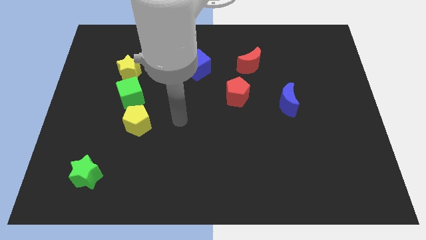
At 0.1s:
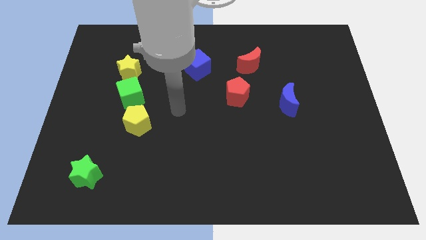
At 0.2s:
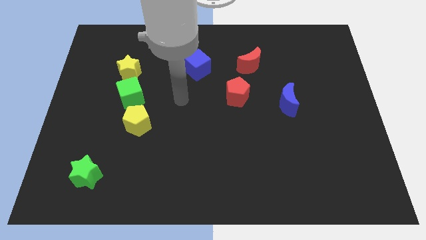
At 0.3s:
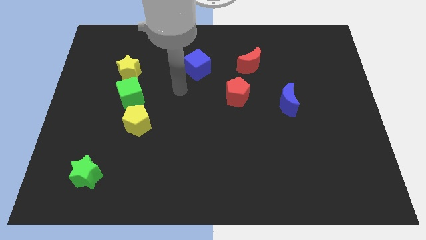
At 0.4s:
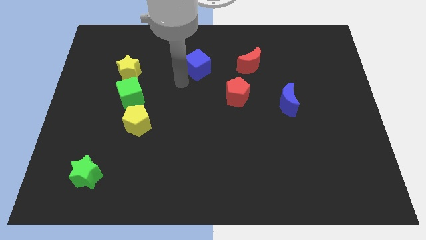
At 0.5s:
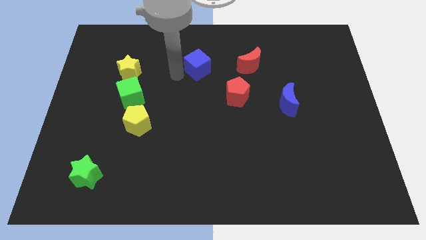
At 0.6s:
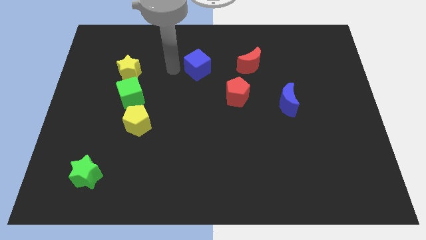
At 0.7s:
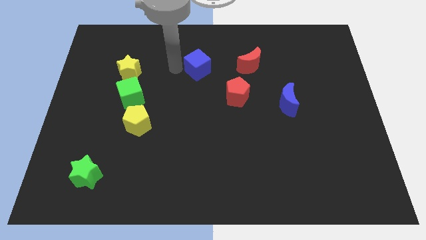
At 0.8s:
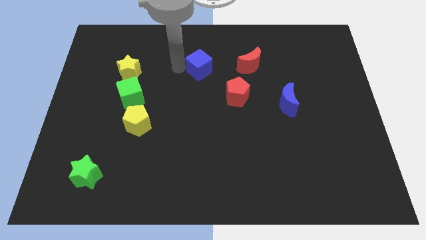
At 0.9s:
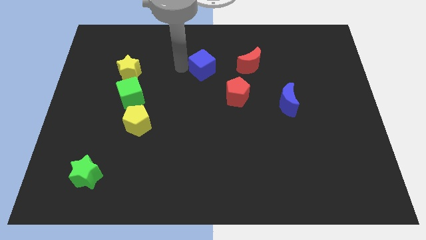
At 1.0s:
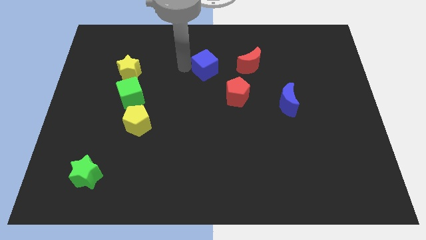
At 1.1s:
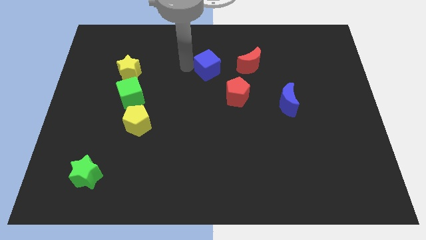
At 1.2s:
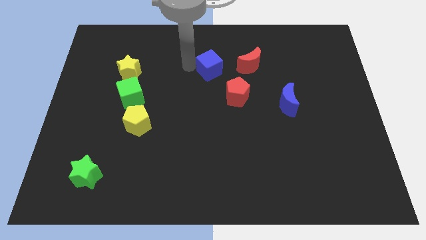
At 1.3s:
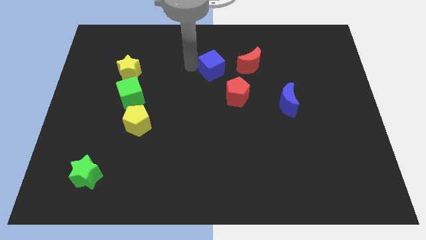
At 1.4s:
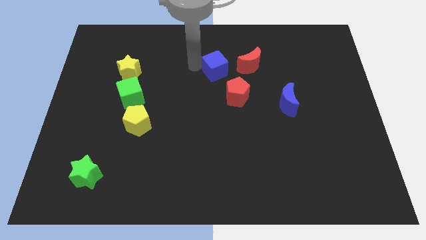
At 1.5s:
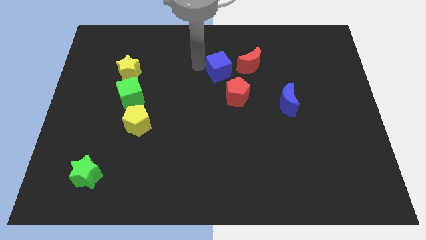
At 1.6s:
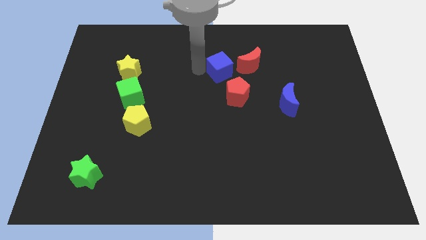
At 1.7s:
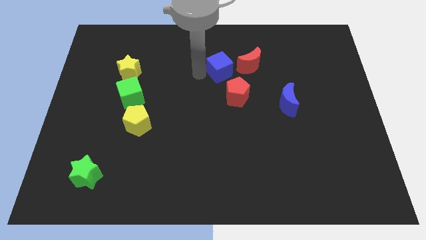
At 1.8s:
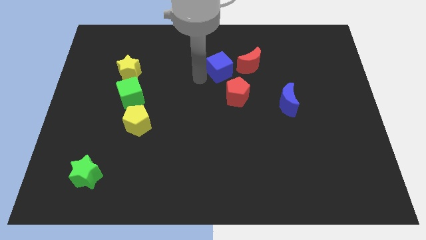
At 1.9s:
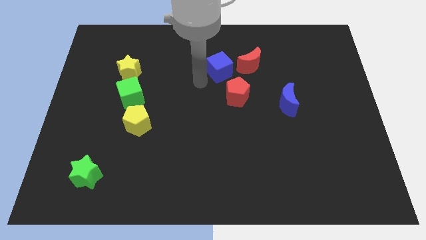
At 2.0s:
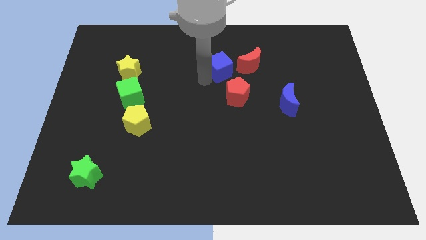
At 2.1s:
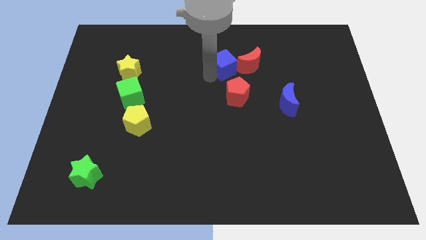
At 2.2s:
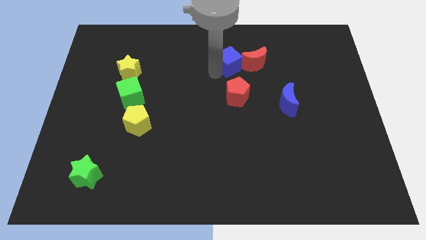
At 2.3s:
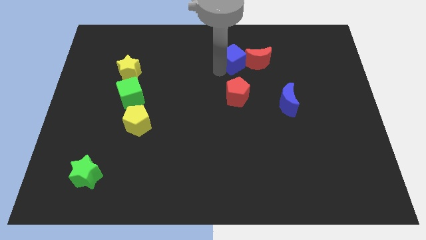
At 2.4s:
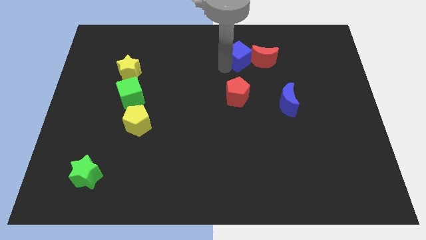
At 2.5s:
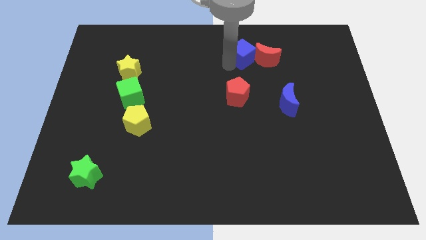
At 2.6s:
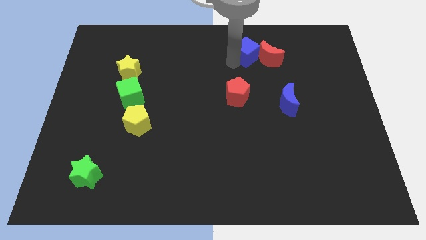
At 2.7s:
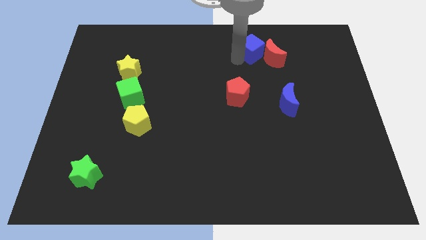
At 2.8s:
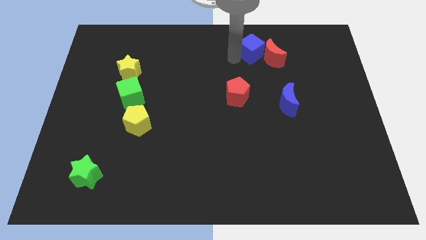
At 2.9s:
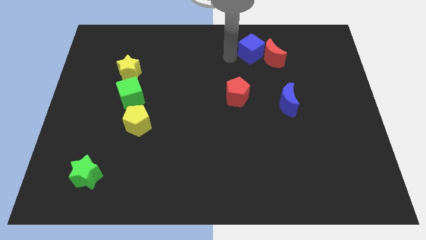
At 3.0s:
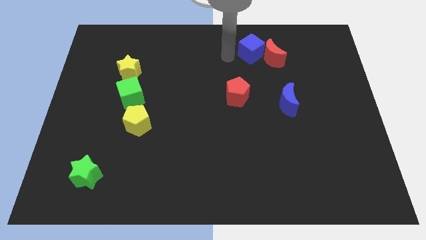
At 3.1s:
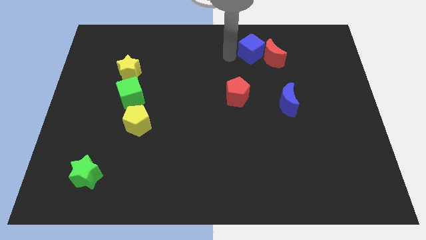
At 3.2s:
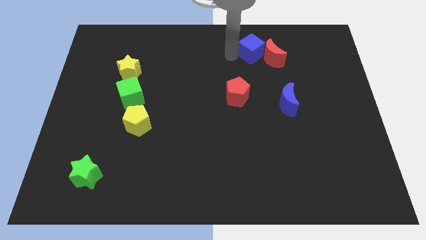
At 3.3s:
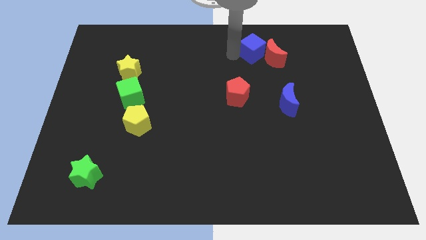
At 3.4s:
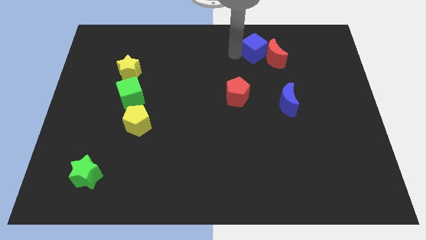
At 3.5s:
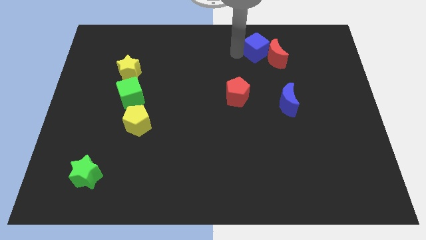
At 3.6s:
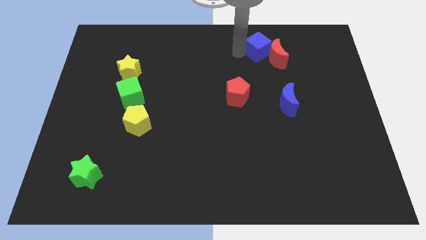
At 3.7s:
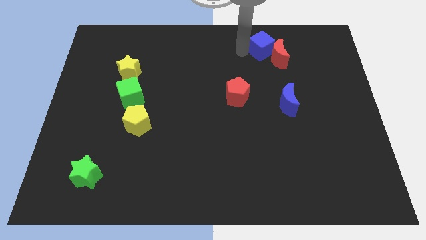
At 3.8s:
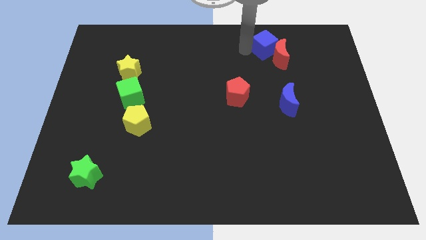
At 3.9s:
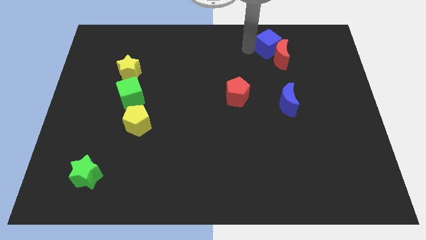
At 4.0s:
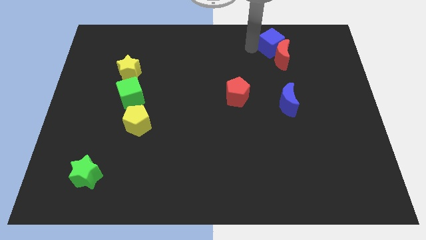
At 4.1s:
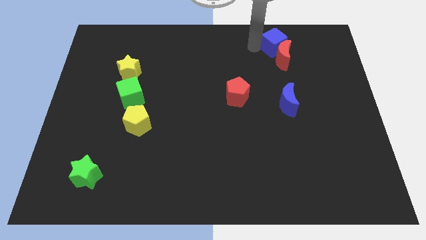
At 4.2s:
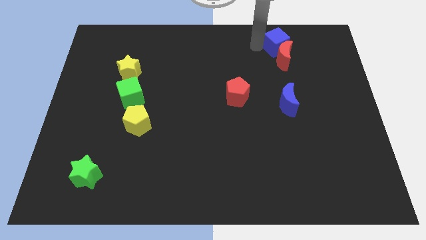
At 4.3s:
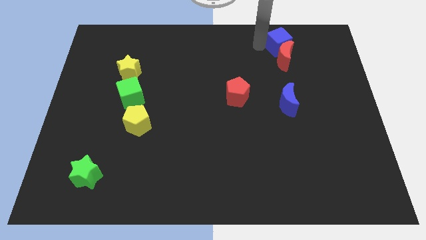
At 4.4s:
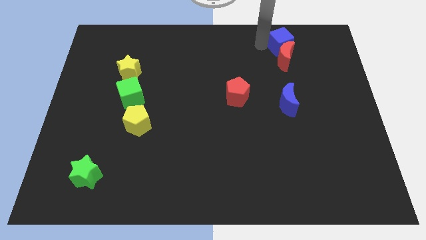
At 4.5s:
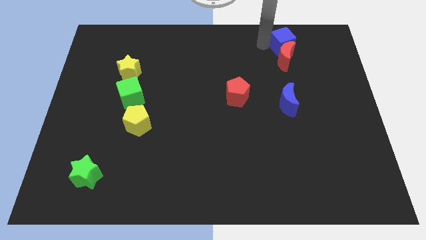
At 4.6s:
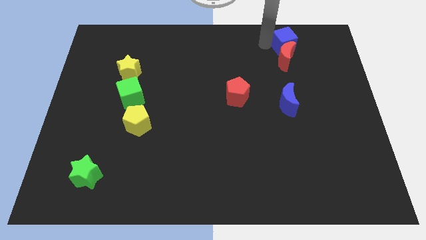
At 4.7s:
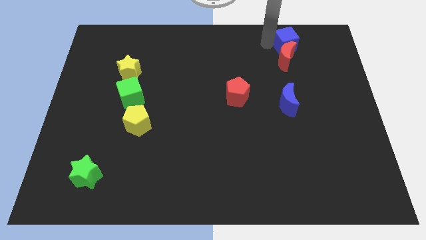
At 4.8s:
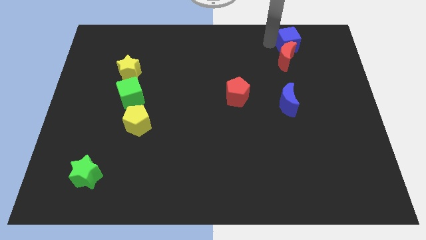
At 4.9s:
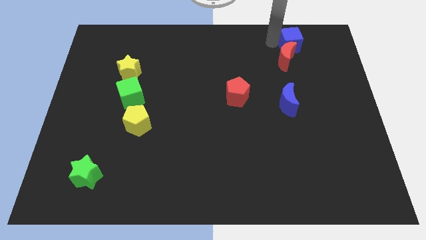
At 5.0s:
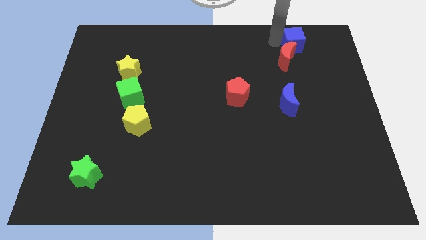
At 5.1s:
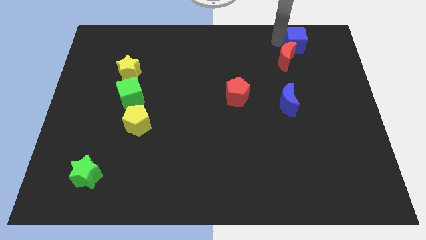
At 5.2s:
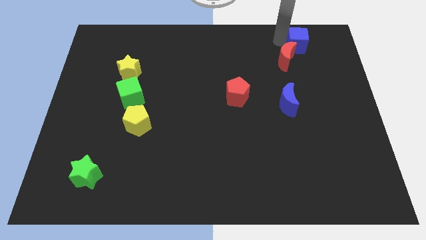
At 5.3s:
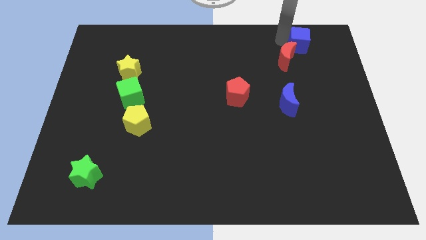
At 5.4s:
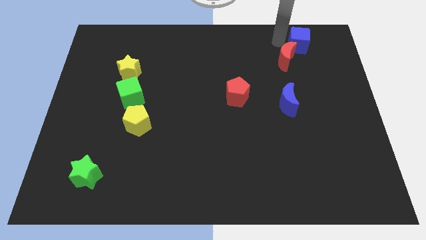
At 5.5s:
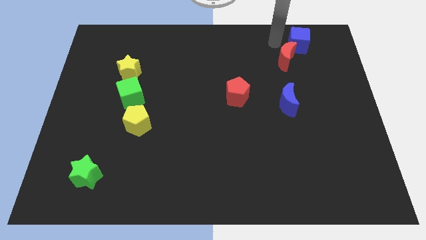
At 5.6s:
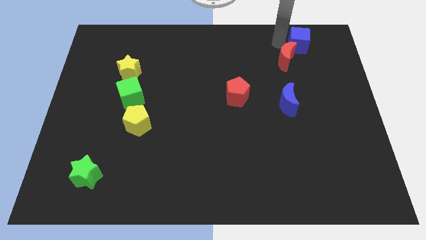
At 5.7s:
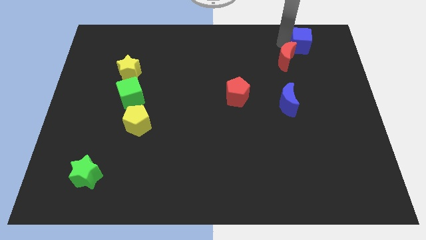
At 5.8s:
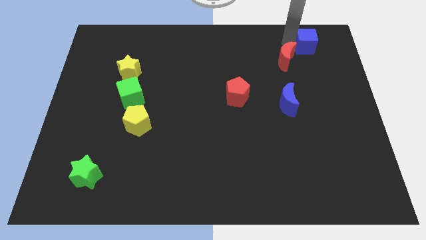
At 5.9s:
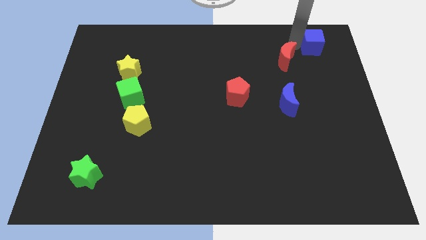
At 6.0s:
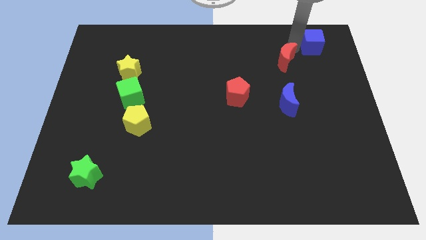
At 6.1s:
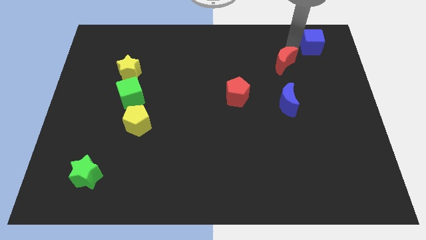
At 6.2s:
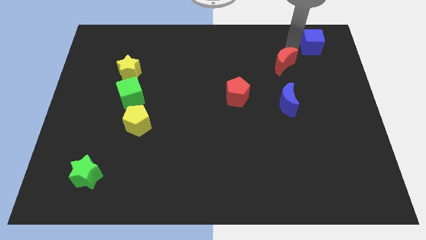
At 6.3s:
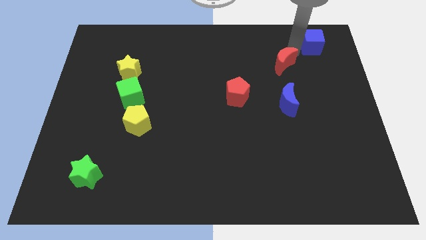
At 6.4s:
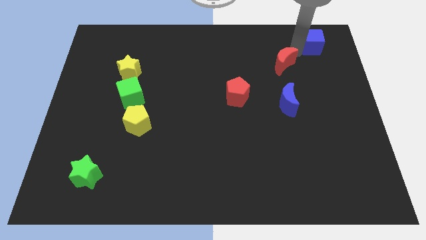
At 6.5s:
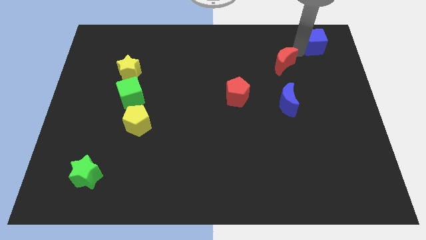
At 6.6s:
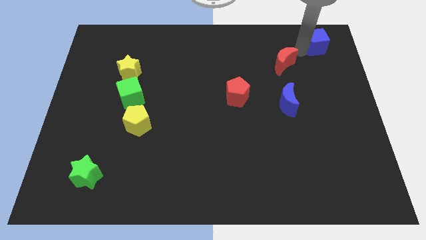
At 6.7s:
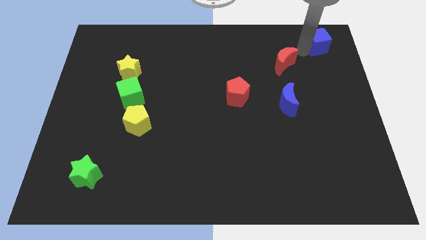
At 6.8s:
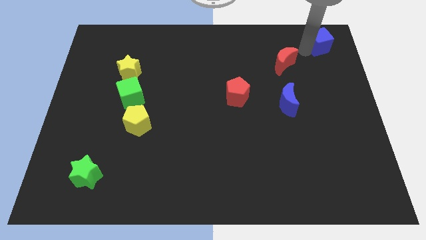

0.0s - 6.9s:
move the blue cube to the top right corner
